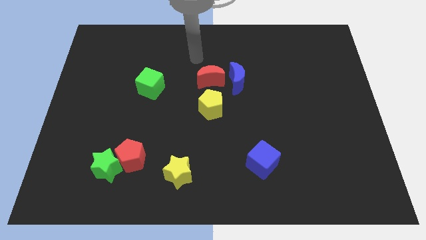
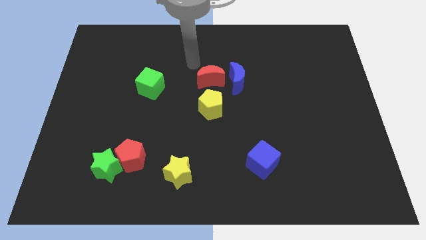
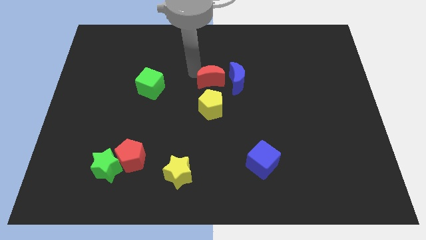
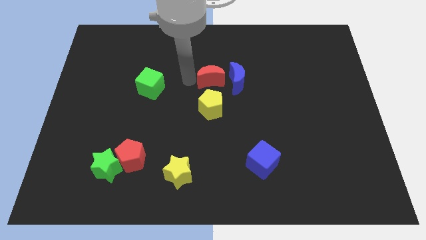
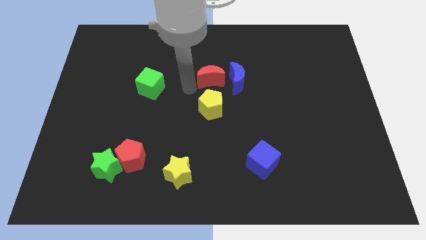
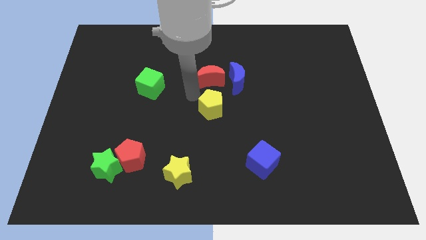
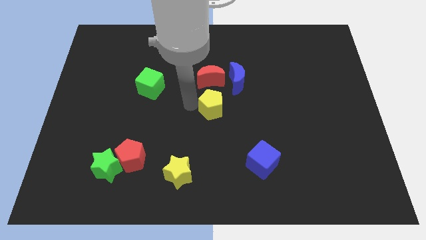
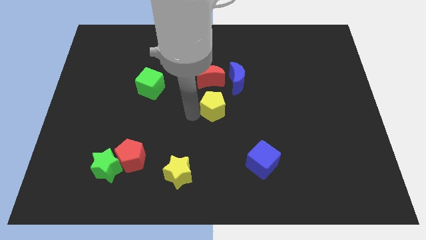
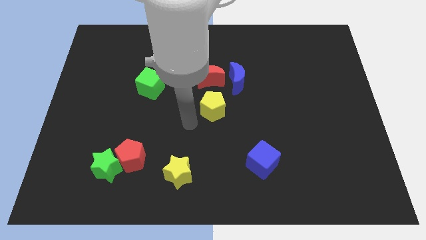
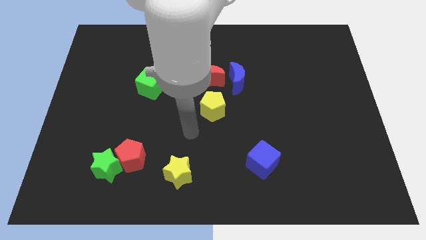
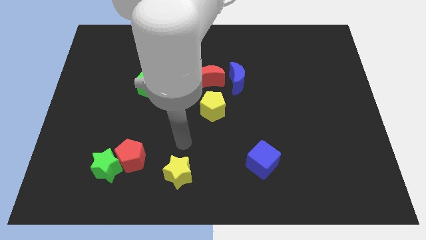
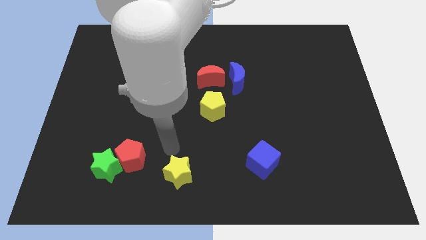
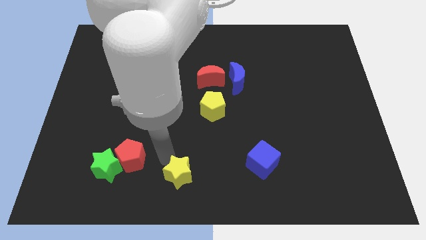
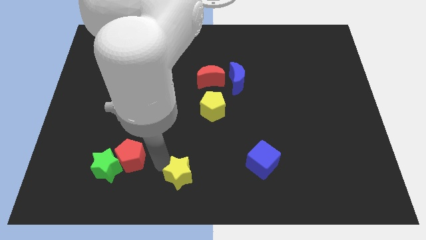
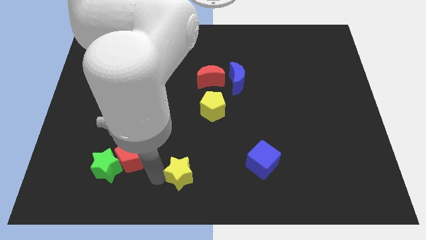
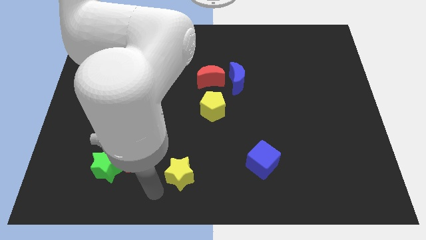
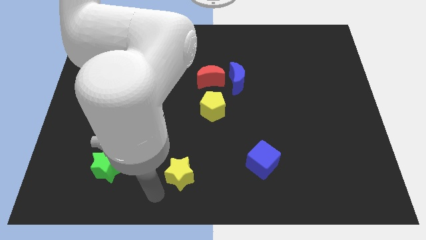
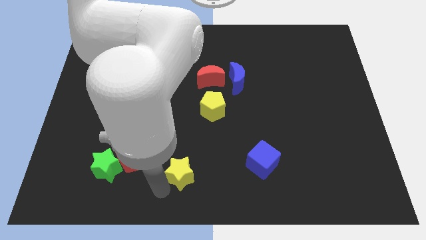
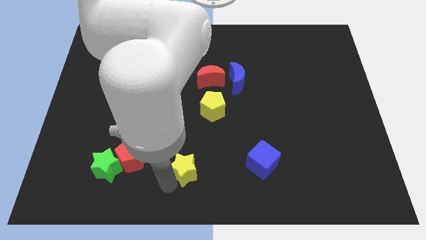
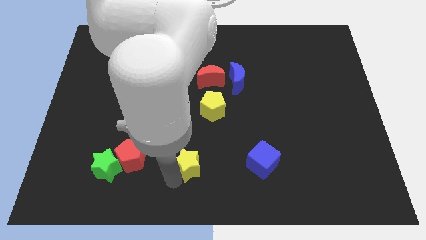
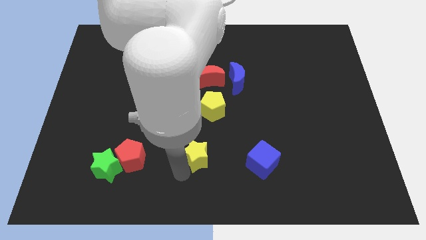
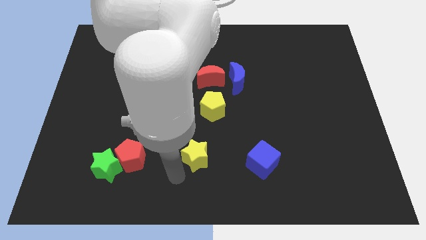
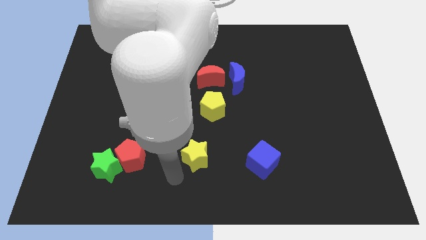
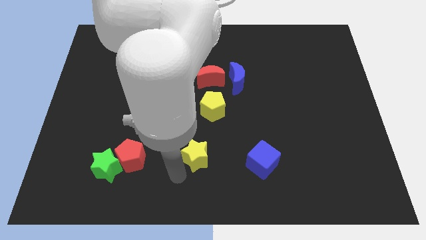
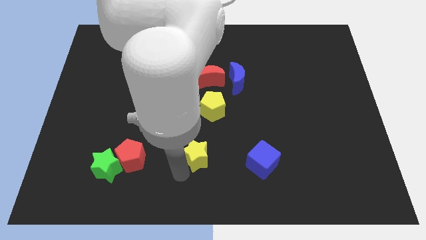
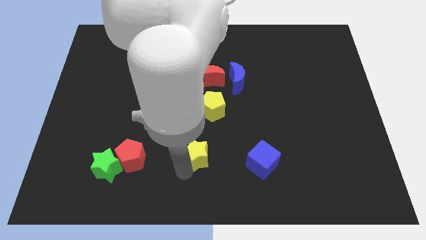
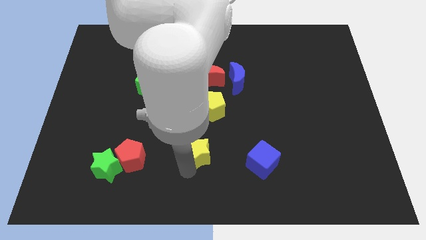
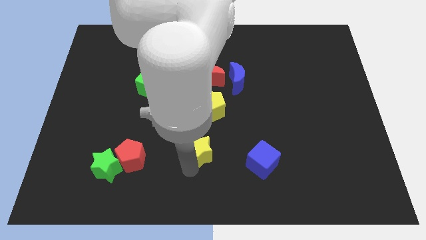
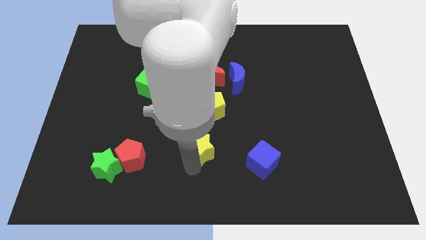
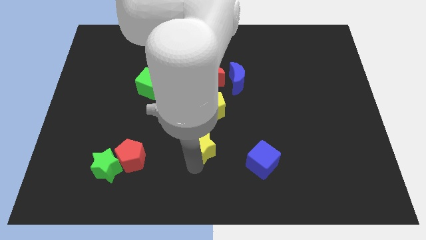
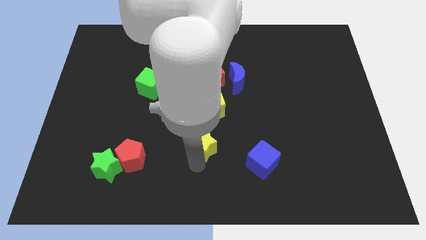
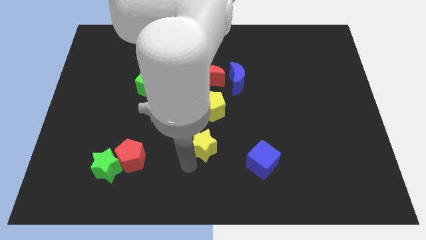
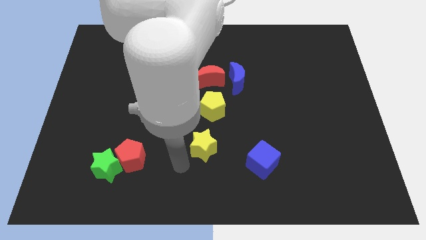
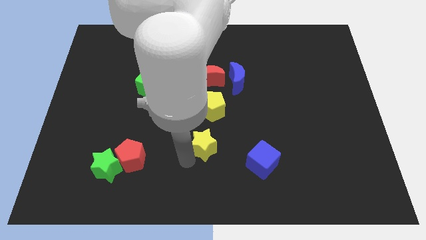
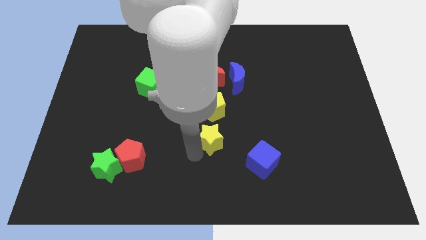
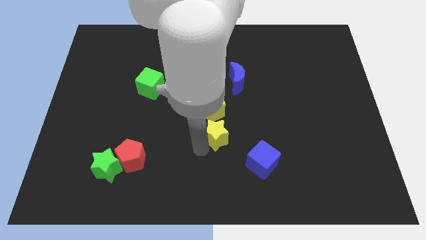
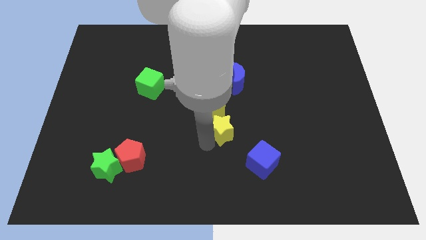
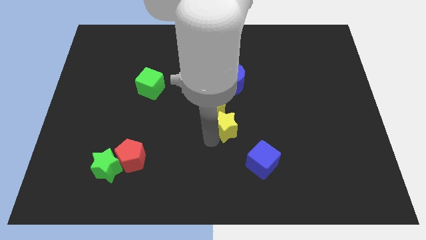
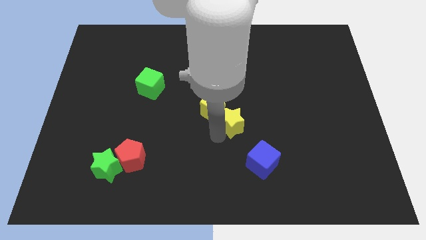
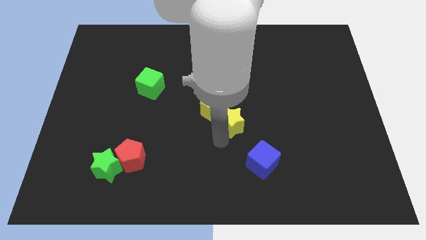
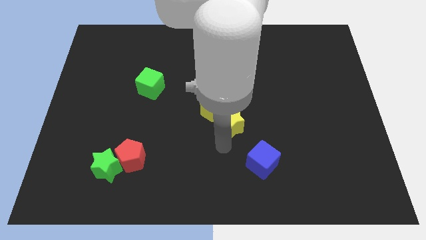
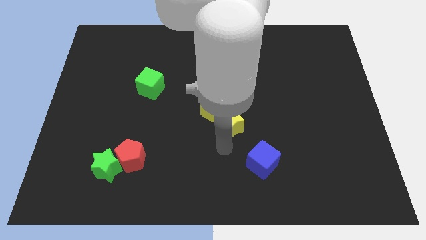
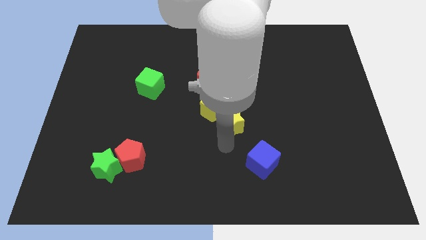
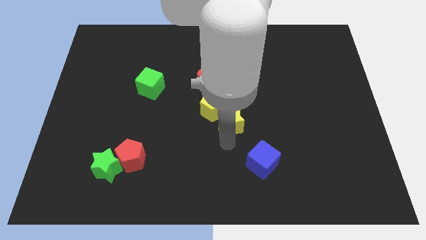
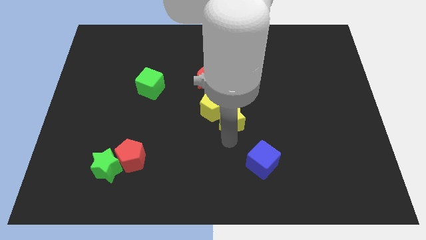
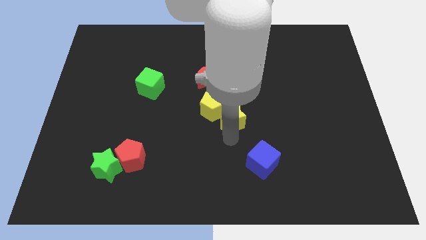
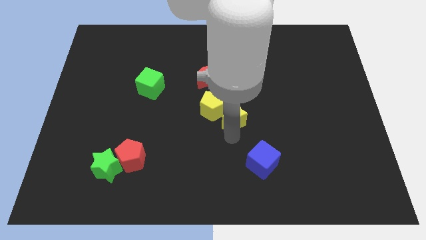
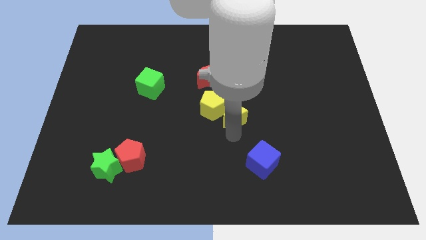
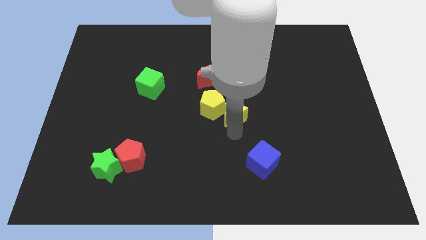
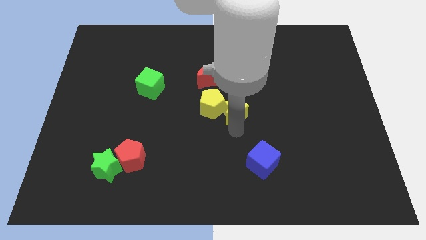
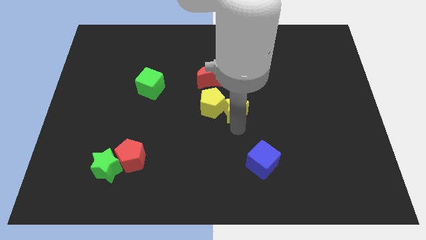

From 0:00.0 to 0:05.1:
push the yellow star to the bottom right of the red moon

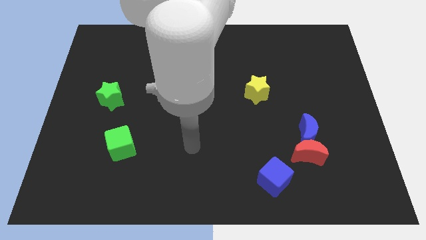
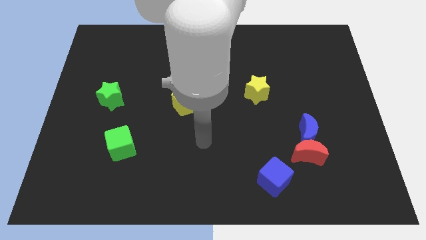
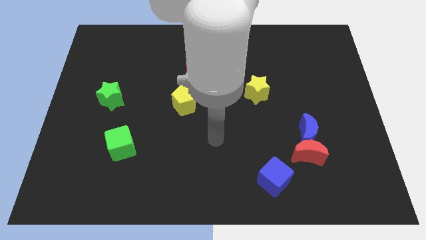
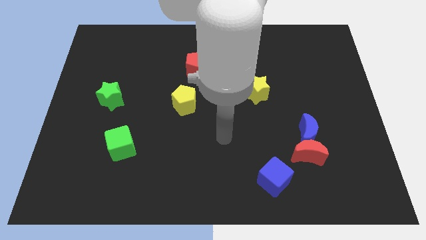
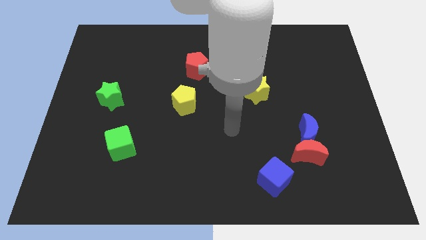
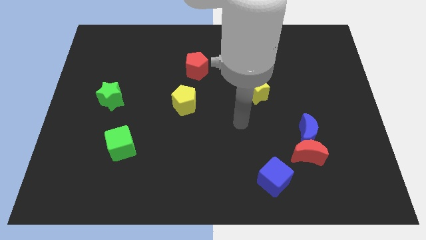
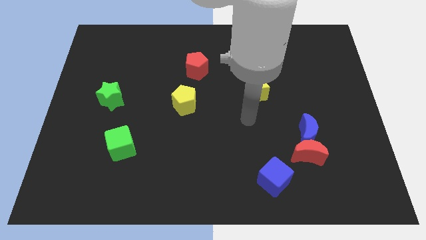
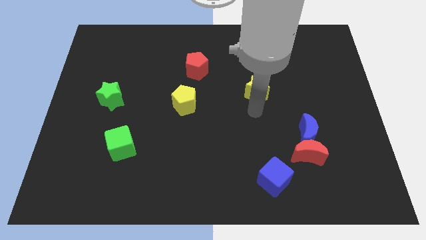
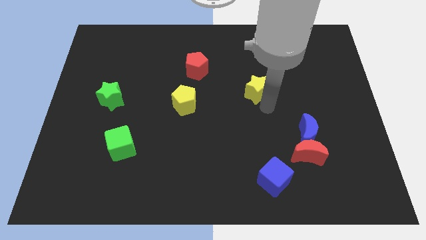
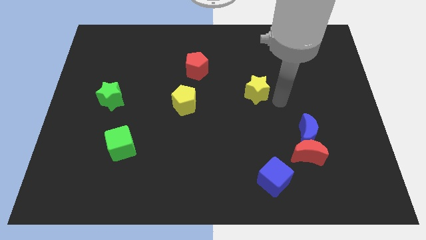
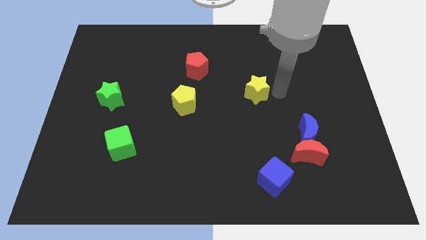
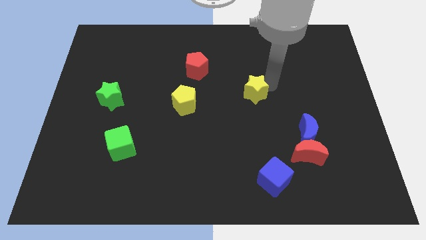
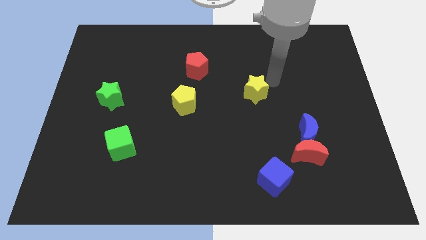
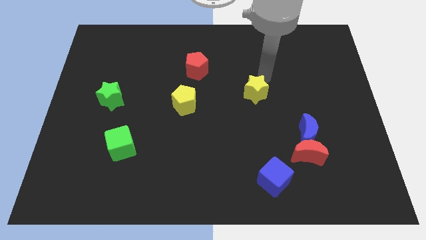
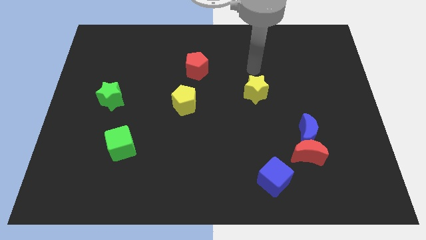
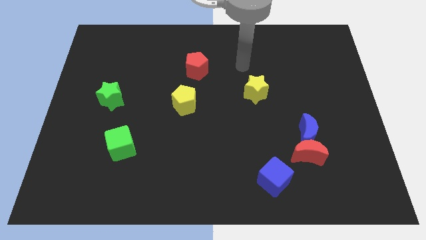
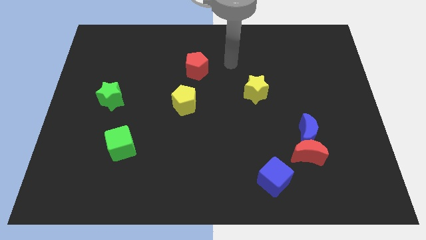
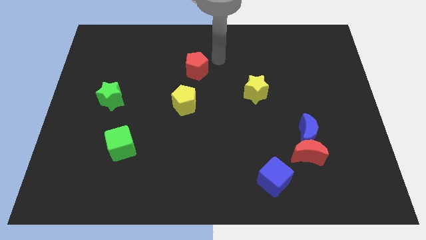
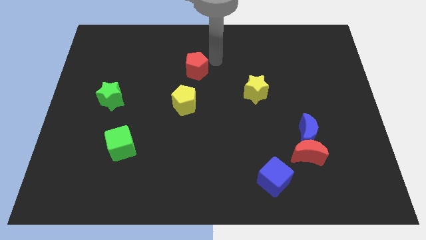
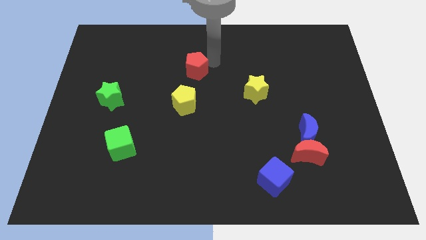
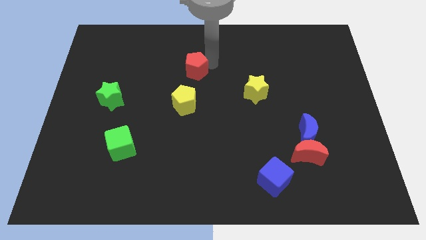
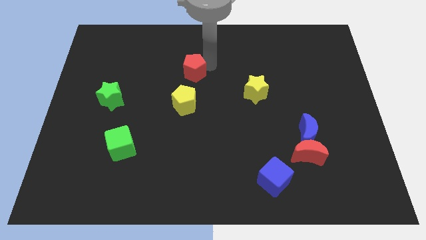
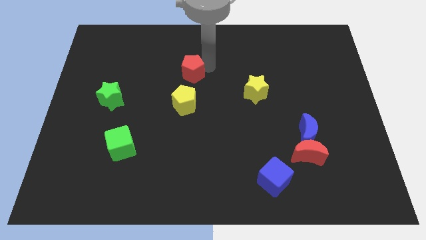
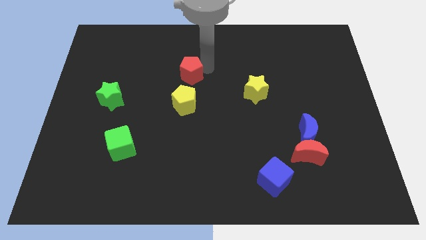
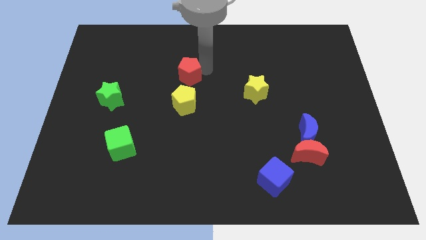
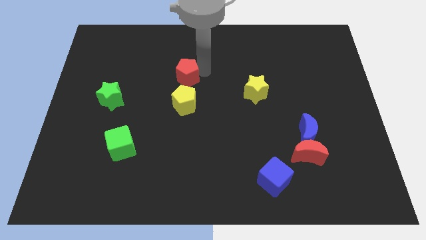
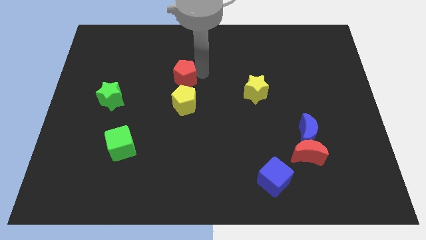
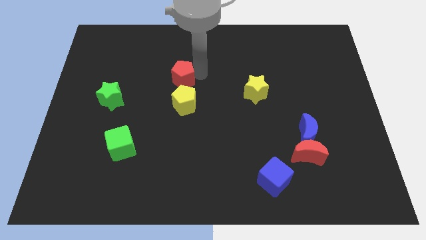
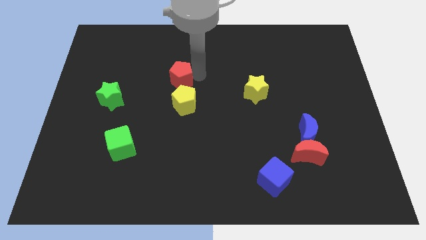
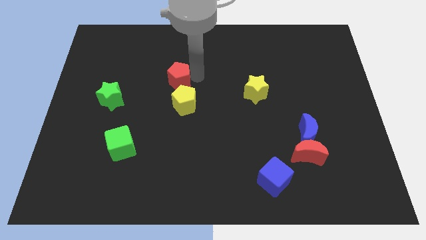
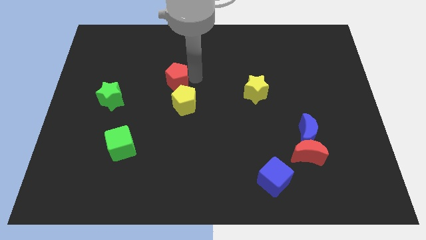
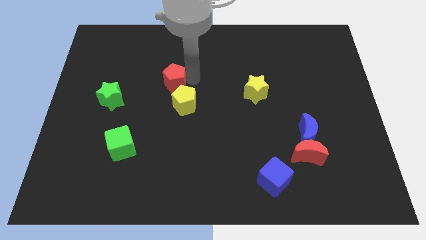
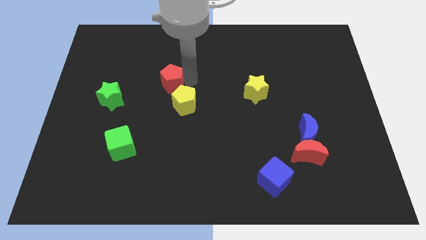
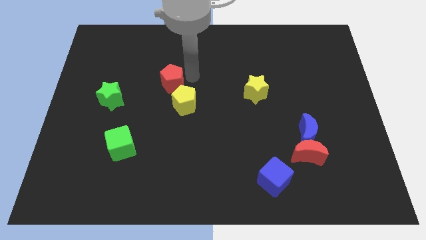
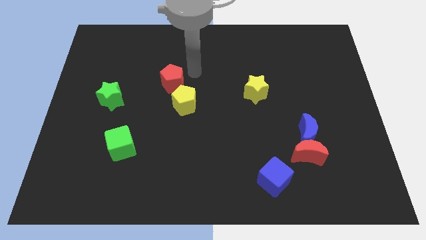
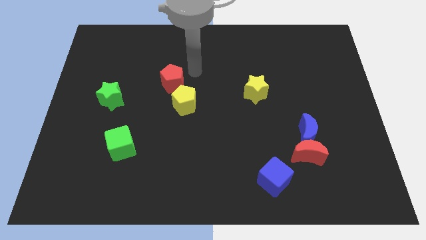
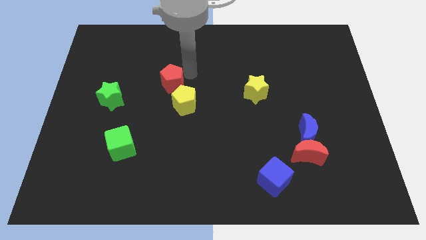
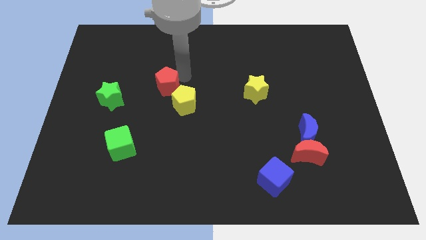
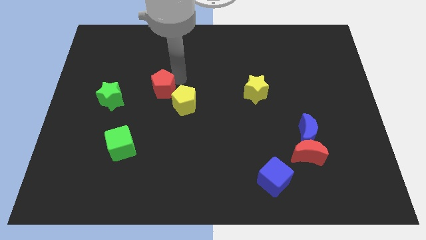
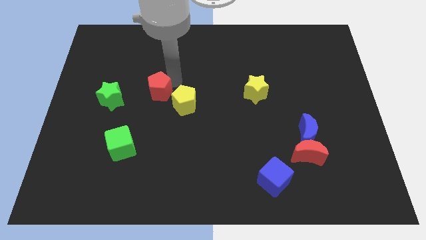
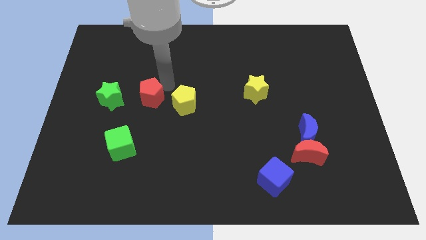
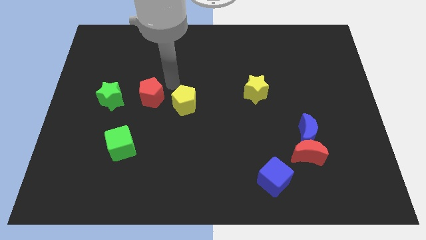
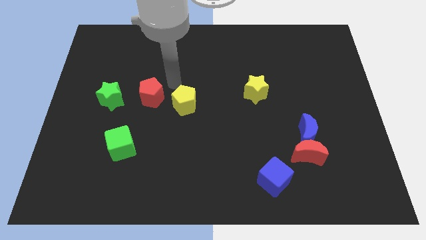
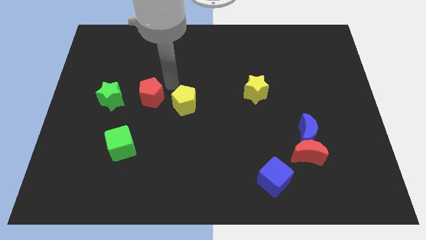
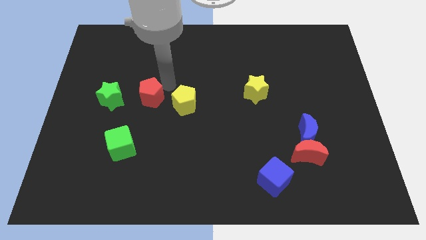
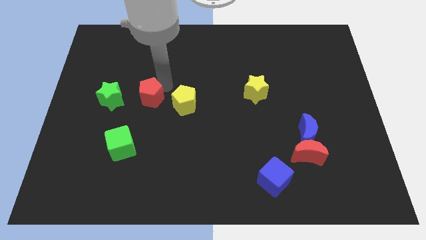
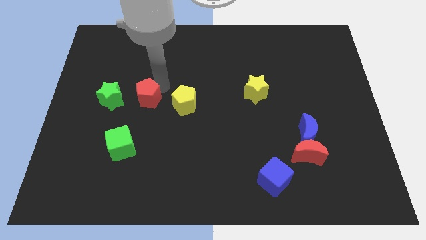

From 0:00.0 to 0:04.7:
slide the red pentagon above the green cube
